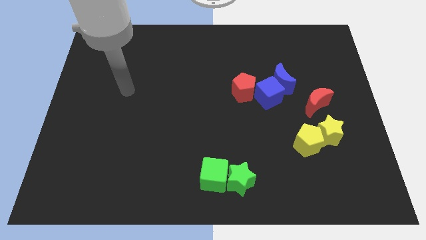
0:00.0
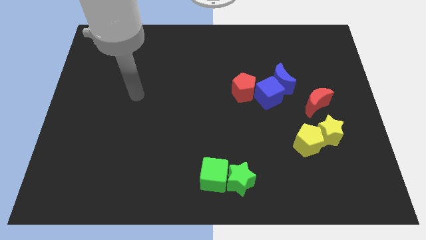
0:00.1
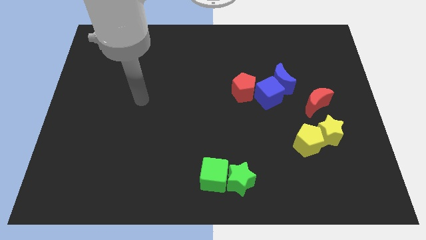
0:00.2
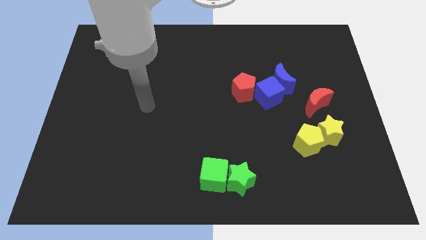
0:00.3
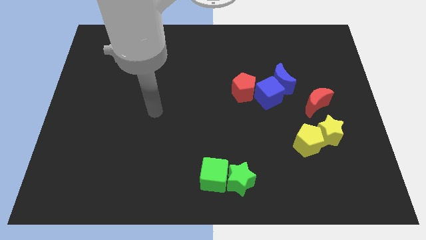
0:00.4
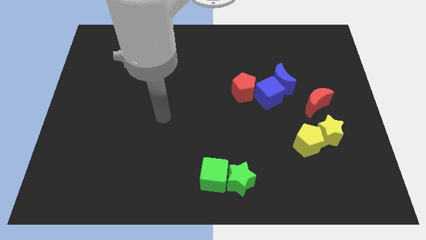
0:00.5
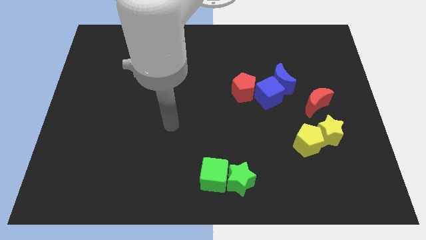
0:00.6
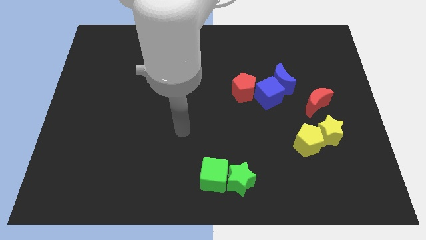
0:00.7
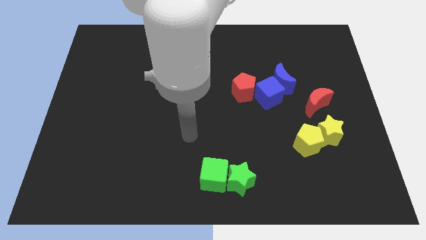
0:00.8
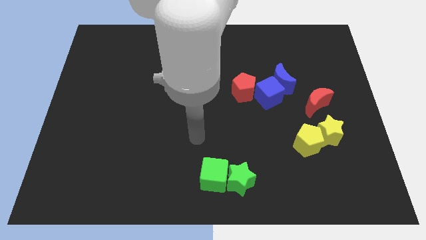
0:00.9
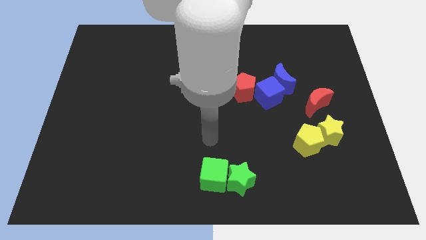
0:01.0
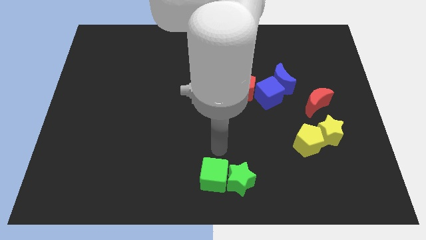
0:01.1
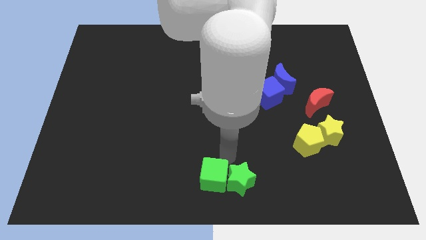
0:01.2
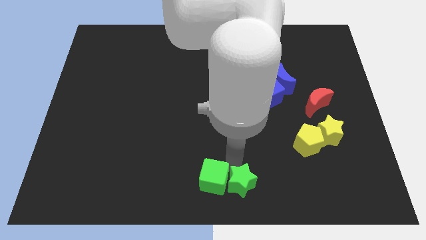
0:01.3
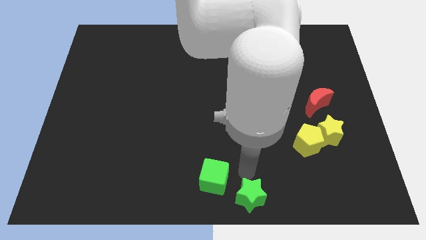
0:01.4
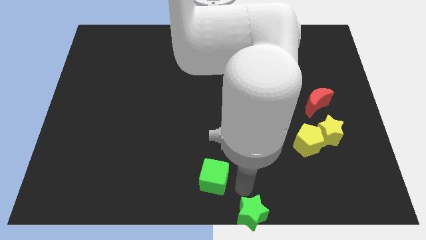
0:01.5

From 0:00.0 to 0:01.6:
move the green cube away from the green star

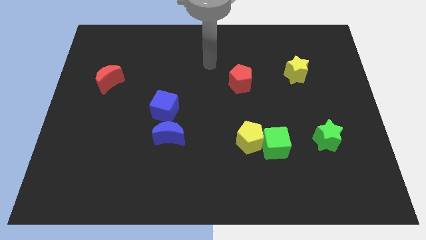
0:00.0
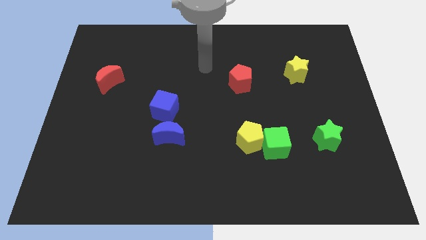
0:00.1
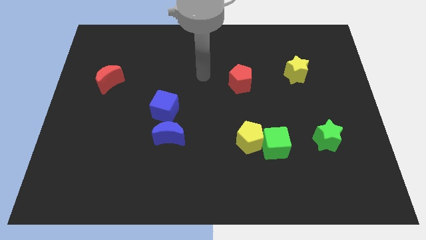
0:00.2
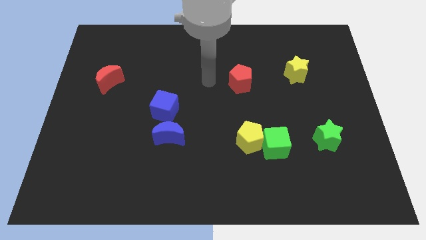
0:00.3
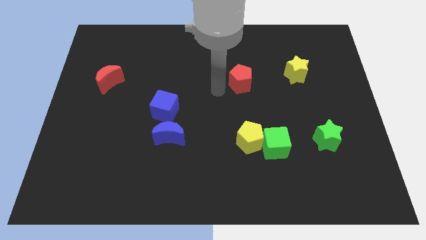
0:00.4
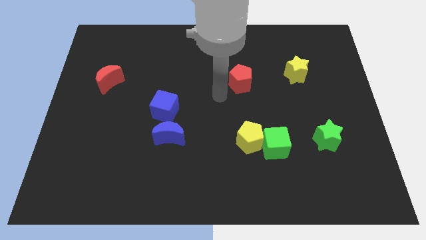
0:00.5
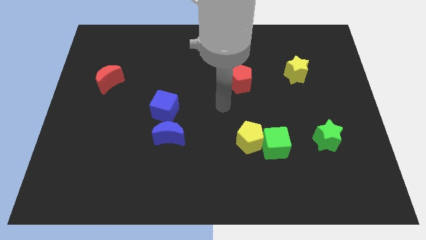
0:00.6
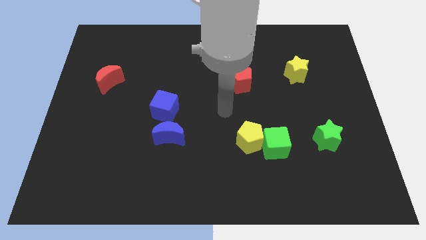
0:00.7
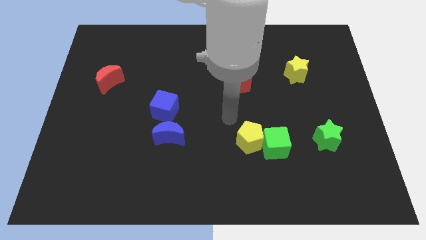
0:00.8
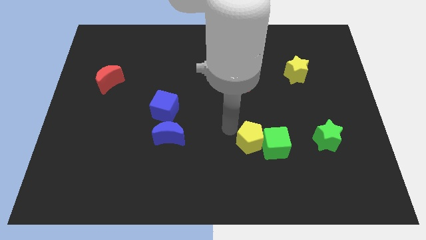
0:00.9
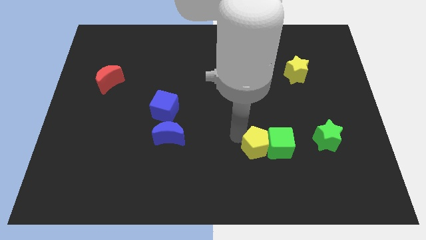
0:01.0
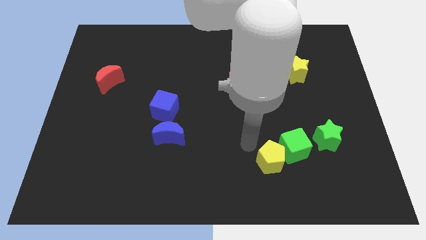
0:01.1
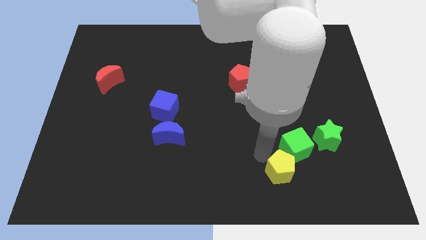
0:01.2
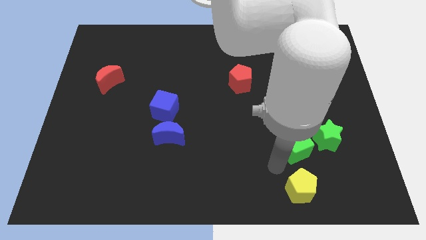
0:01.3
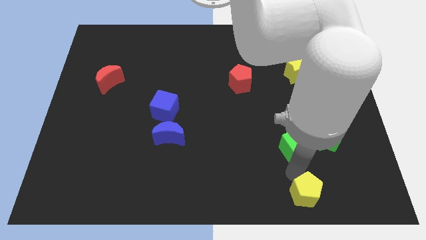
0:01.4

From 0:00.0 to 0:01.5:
separate the green cube from the yellow pentagon

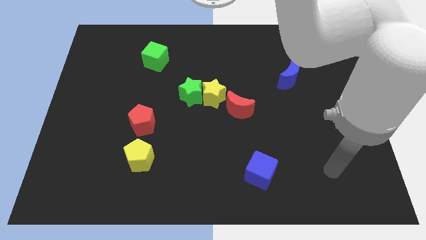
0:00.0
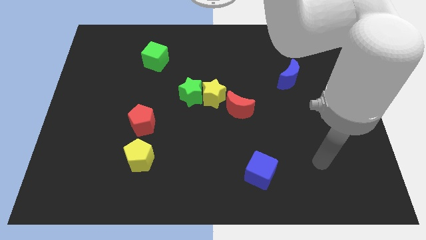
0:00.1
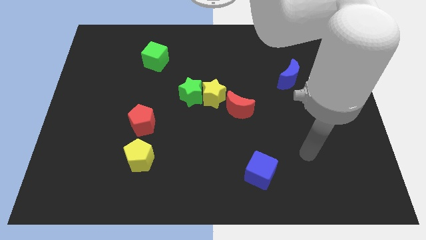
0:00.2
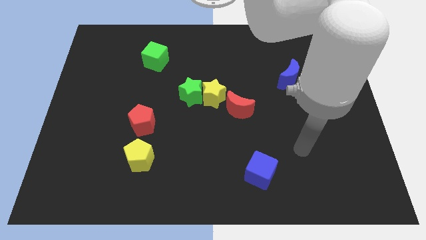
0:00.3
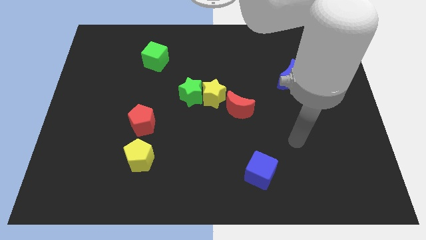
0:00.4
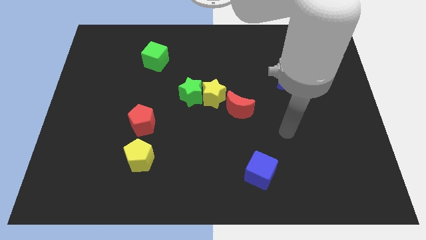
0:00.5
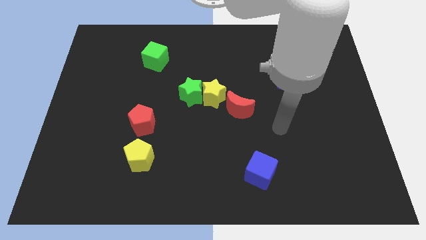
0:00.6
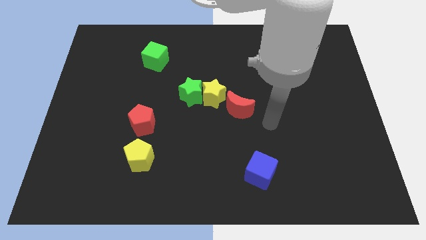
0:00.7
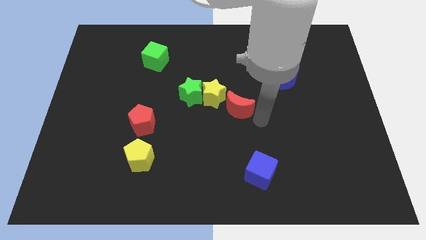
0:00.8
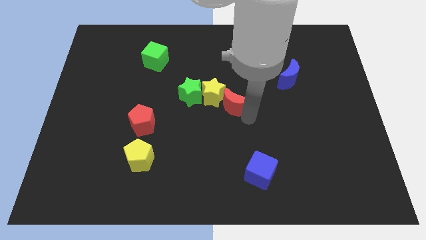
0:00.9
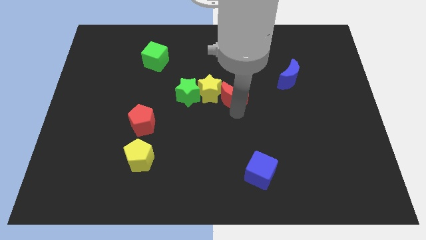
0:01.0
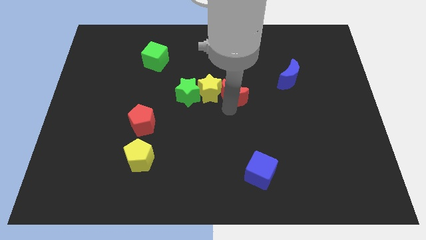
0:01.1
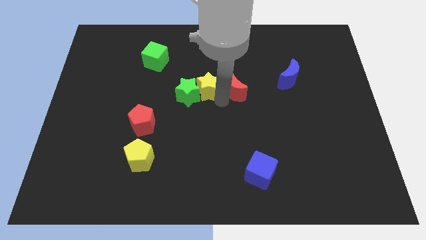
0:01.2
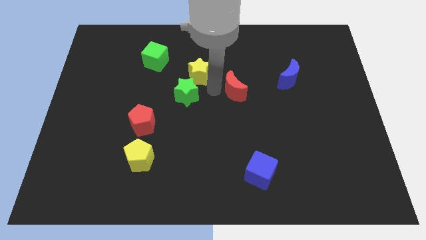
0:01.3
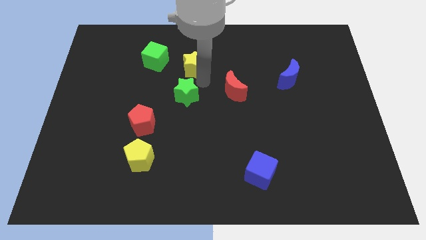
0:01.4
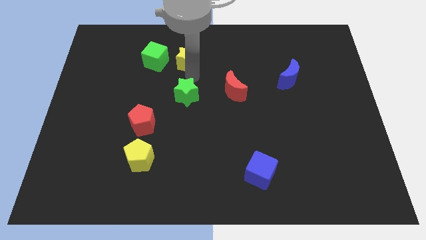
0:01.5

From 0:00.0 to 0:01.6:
pull the green star apart from the yellow star

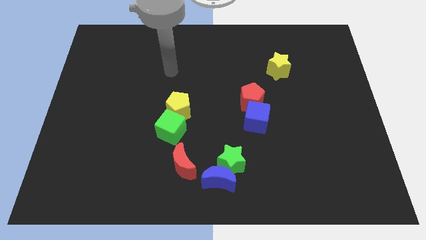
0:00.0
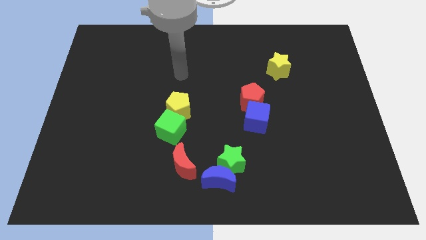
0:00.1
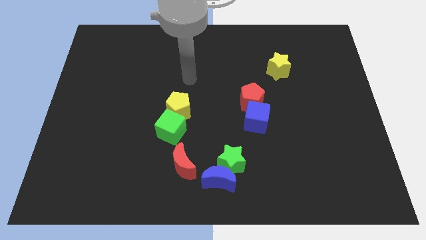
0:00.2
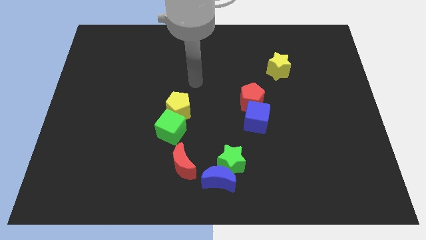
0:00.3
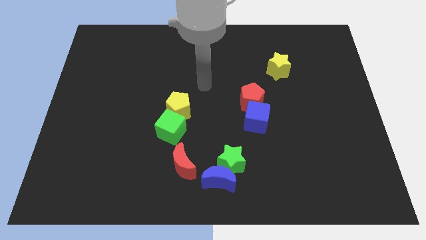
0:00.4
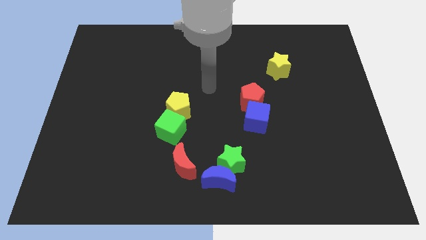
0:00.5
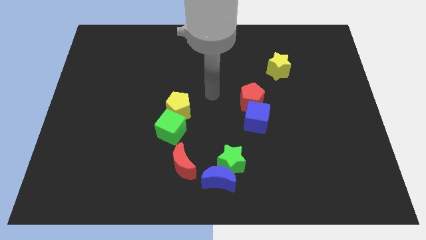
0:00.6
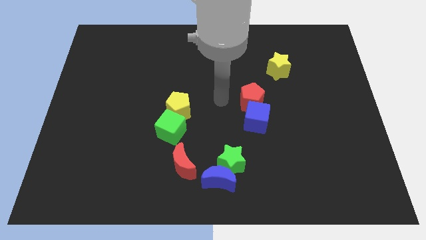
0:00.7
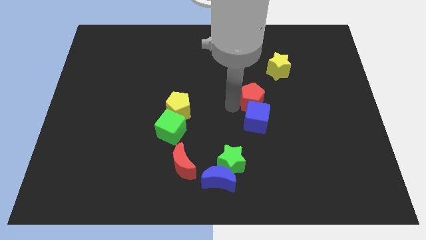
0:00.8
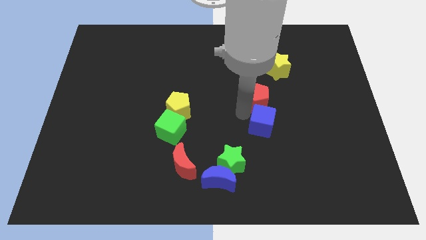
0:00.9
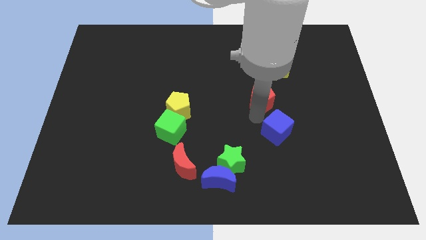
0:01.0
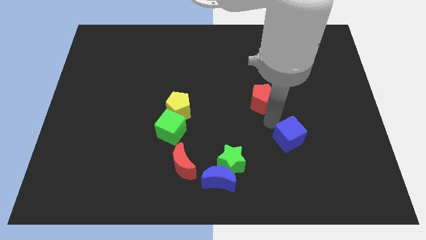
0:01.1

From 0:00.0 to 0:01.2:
pull the red pentagon apart from the blue cube

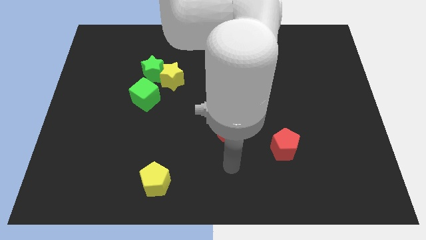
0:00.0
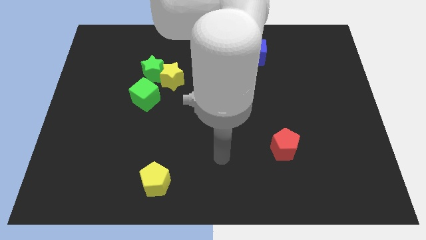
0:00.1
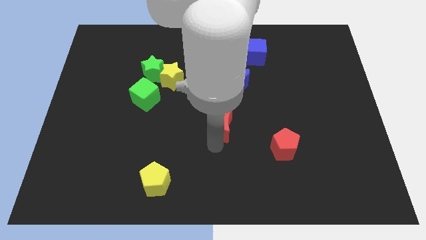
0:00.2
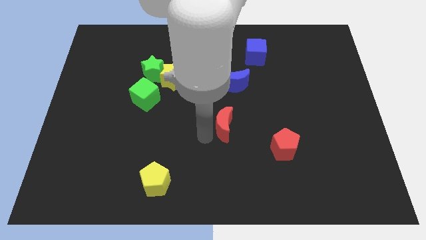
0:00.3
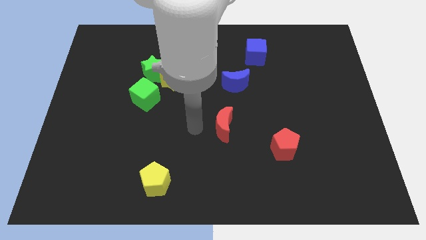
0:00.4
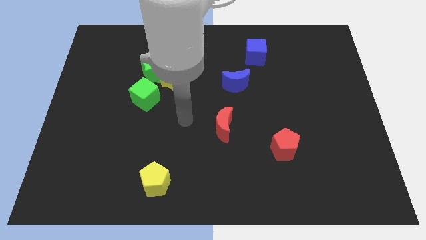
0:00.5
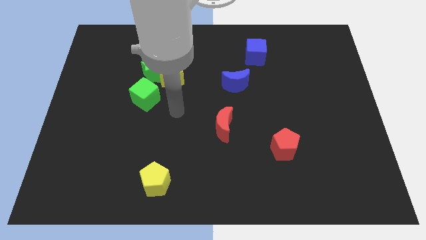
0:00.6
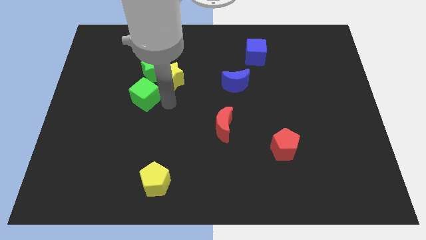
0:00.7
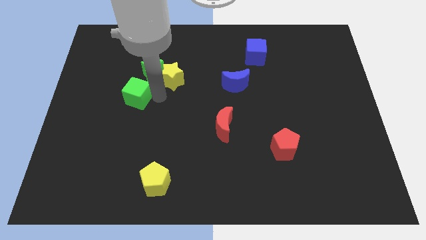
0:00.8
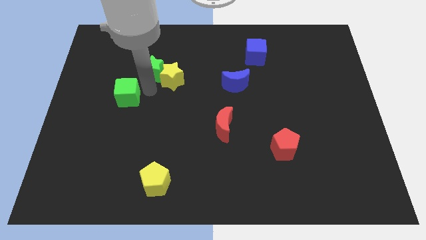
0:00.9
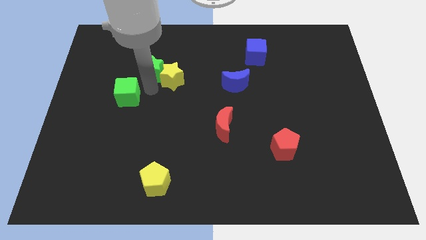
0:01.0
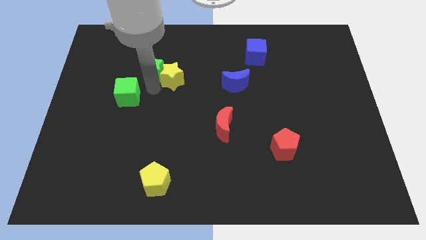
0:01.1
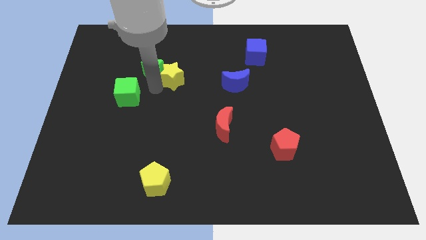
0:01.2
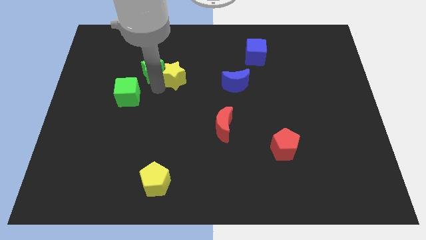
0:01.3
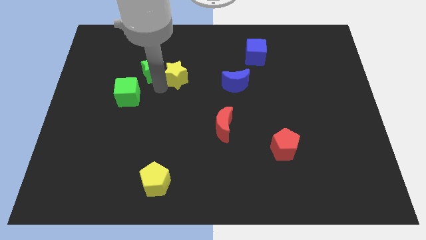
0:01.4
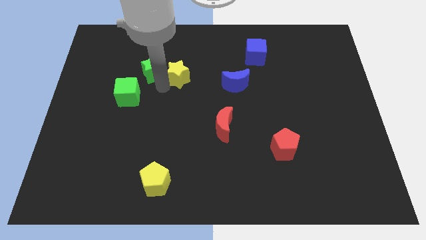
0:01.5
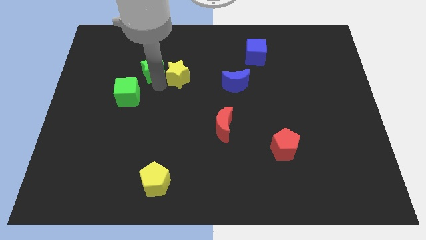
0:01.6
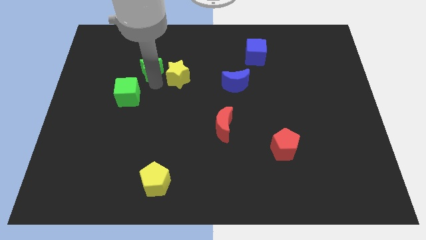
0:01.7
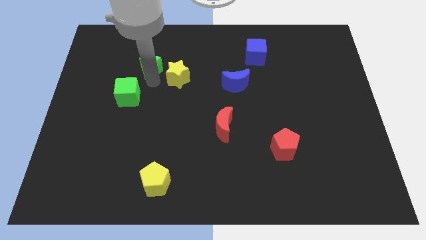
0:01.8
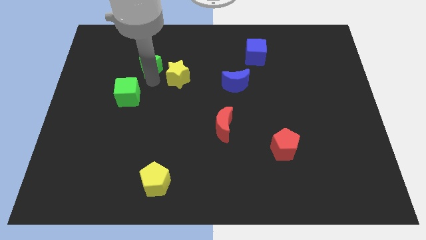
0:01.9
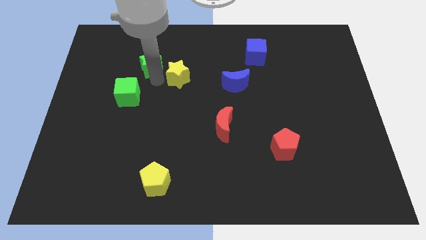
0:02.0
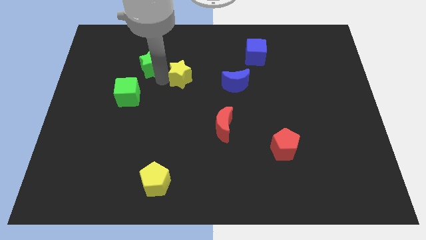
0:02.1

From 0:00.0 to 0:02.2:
move the yellow star away from the green star and green cube

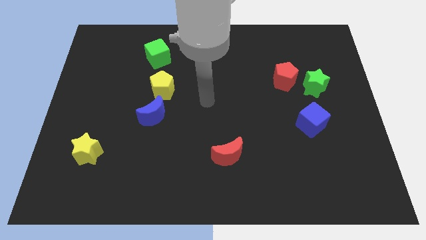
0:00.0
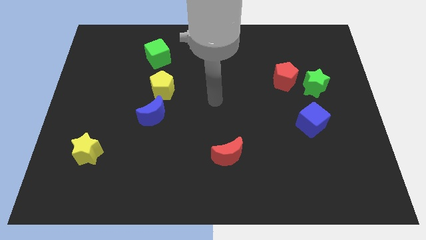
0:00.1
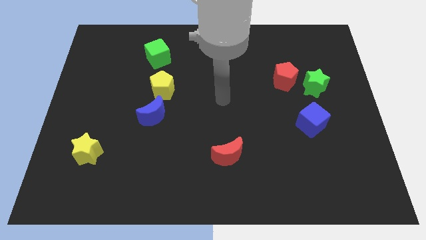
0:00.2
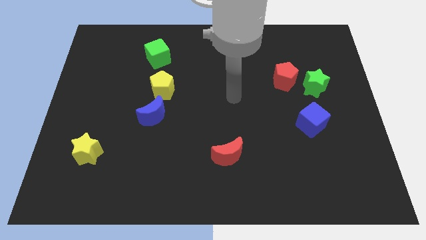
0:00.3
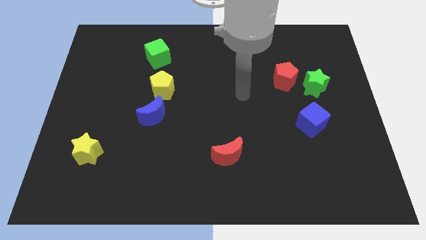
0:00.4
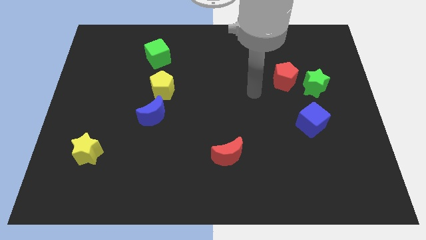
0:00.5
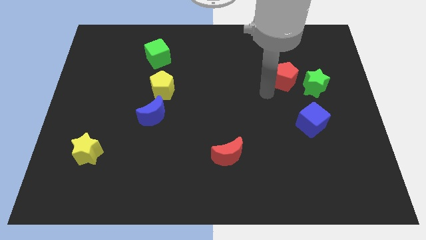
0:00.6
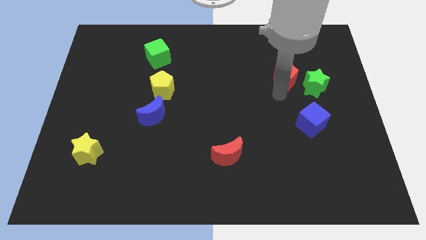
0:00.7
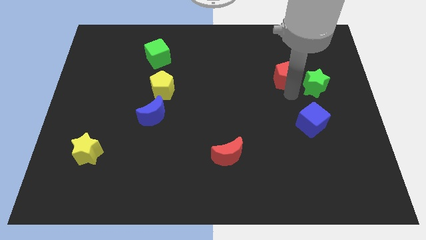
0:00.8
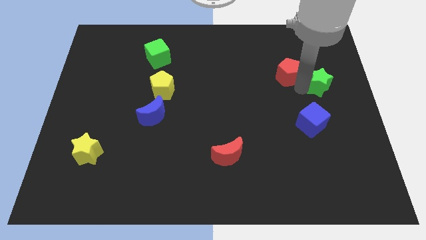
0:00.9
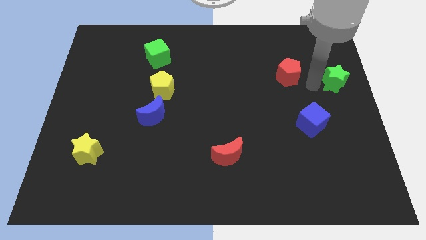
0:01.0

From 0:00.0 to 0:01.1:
pull the red pentagon apart from the green star

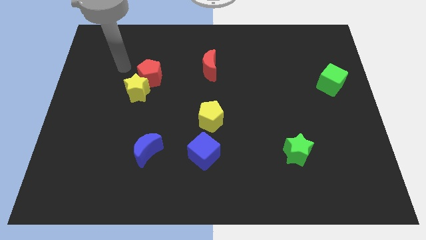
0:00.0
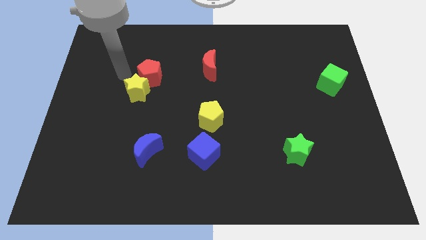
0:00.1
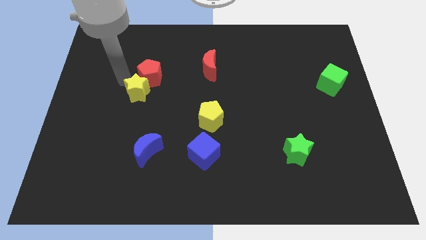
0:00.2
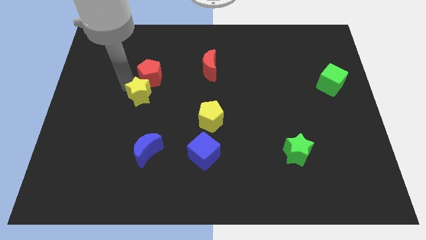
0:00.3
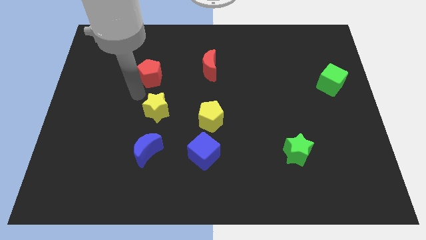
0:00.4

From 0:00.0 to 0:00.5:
move the red pentagon away from the yellow star
